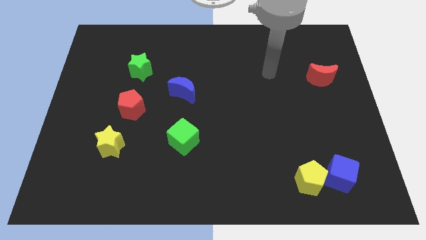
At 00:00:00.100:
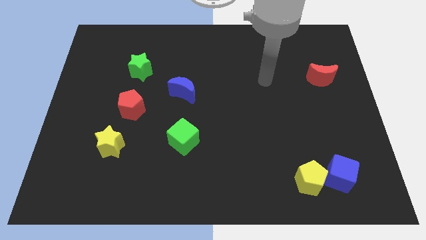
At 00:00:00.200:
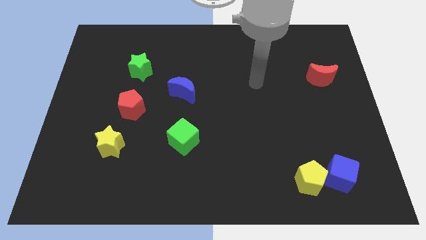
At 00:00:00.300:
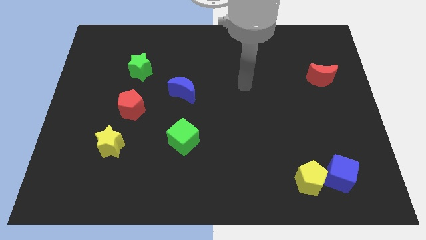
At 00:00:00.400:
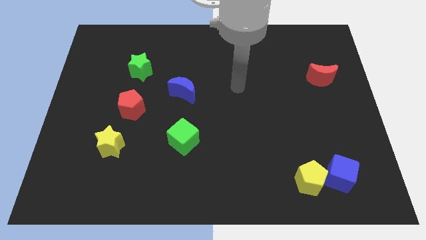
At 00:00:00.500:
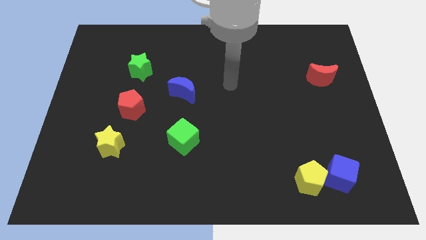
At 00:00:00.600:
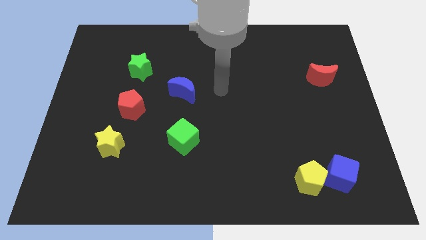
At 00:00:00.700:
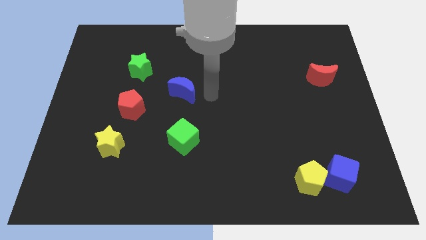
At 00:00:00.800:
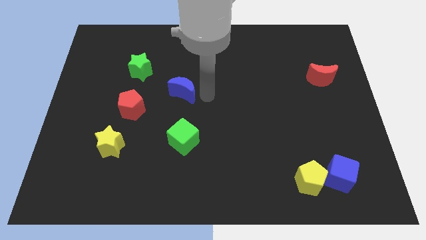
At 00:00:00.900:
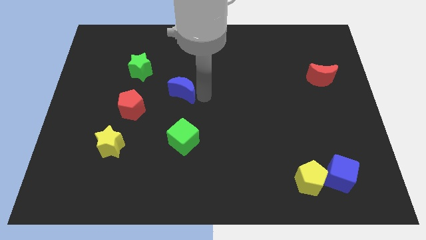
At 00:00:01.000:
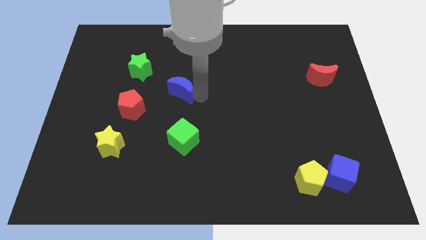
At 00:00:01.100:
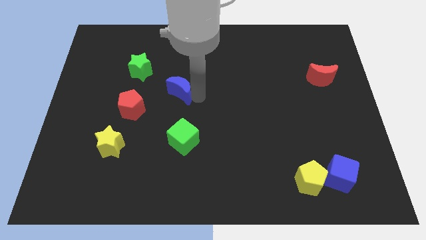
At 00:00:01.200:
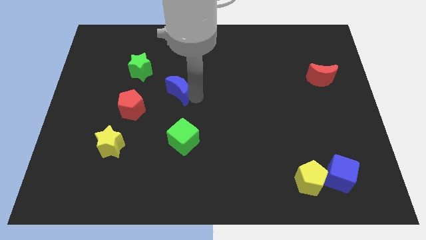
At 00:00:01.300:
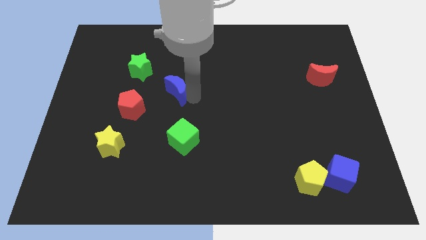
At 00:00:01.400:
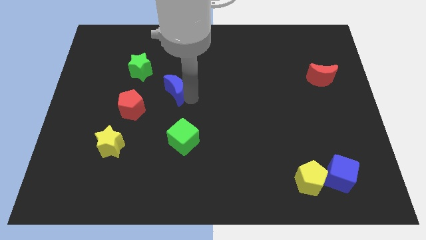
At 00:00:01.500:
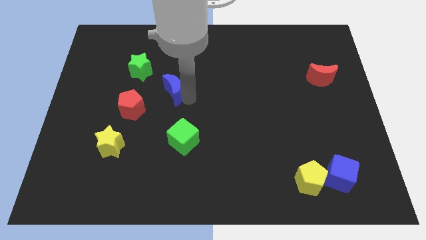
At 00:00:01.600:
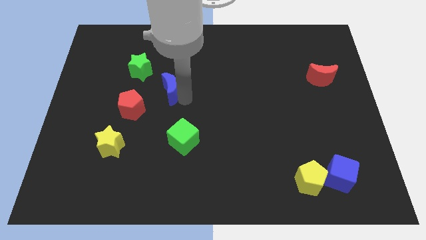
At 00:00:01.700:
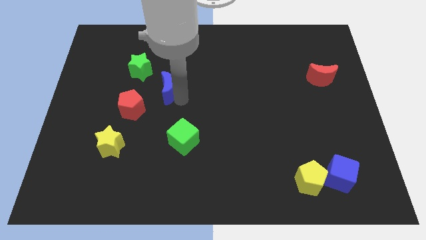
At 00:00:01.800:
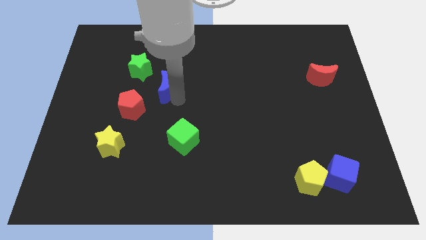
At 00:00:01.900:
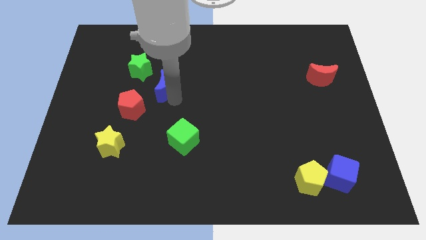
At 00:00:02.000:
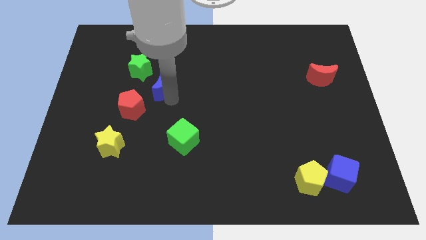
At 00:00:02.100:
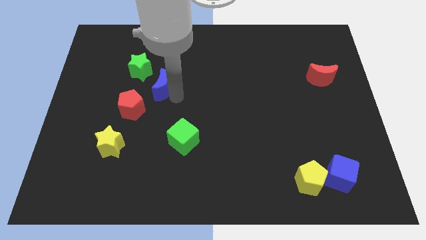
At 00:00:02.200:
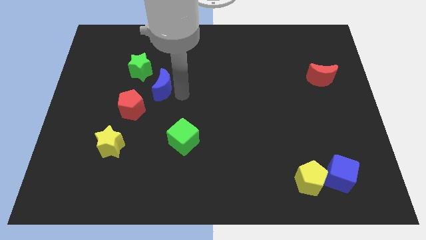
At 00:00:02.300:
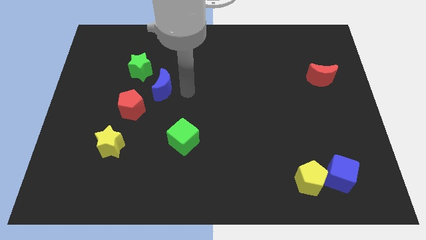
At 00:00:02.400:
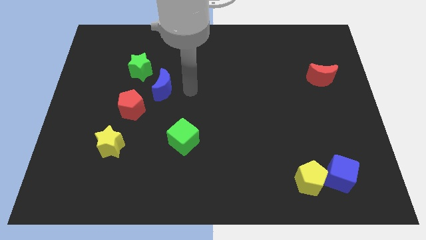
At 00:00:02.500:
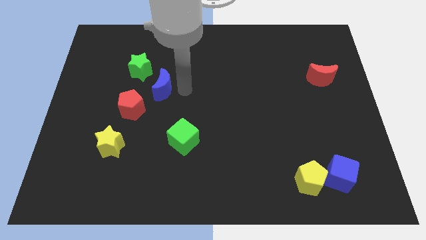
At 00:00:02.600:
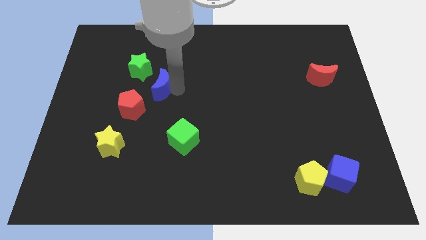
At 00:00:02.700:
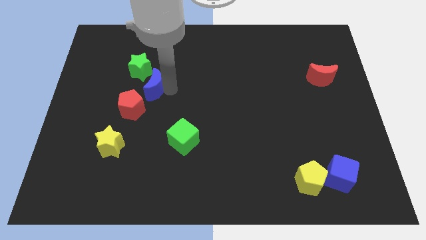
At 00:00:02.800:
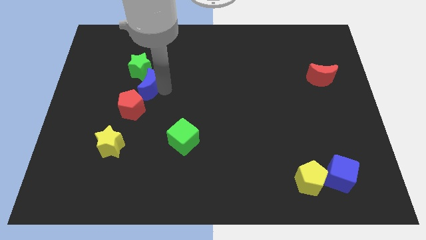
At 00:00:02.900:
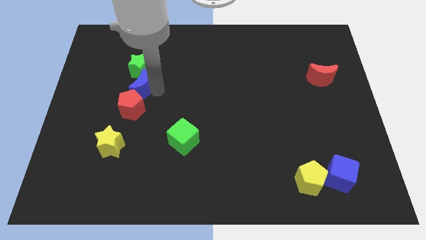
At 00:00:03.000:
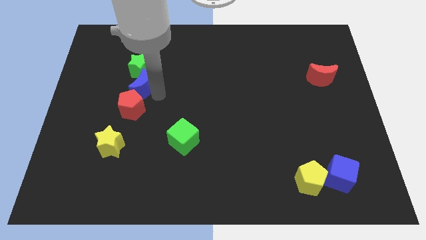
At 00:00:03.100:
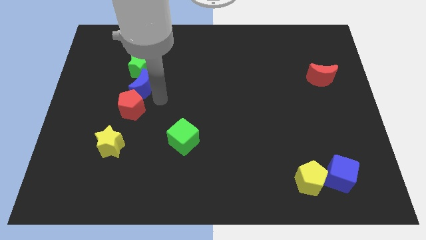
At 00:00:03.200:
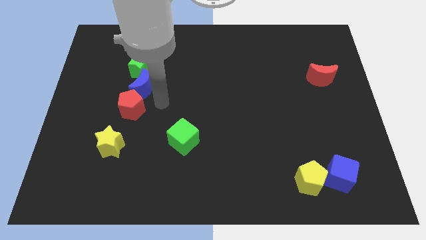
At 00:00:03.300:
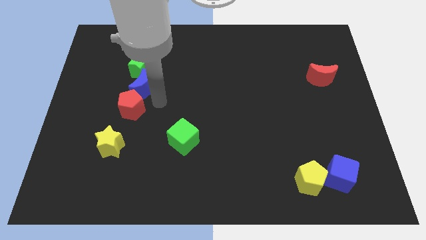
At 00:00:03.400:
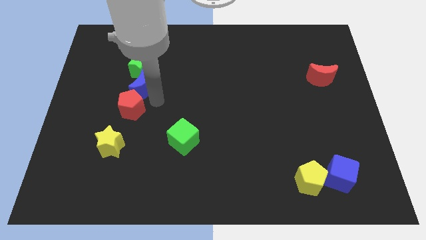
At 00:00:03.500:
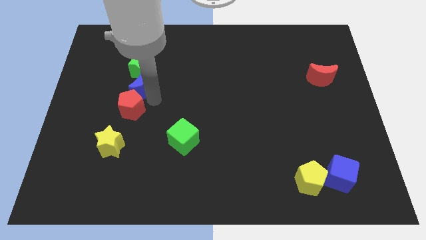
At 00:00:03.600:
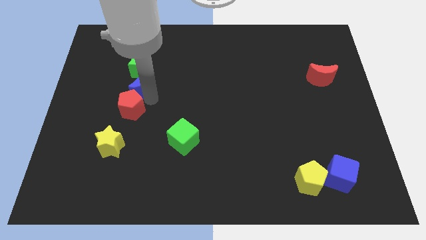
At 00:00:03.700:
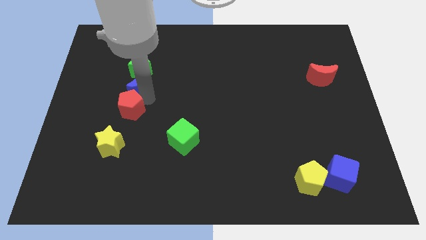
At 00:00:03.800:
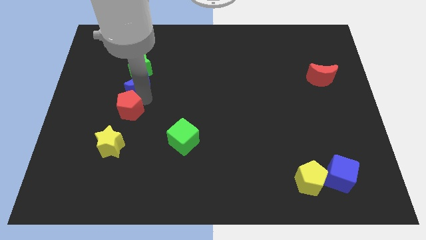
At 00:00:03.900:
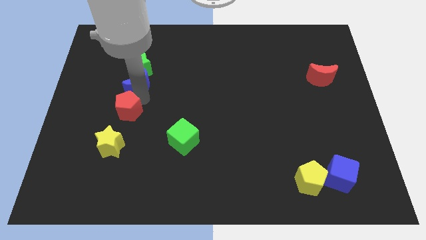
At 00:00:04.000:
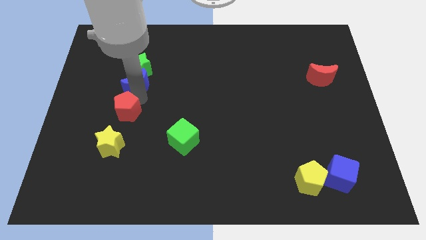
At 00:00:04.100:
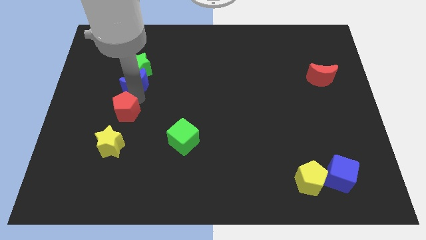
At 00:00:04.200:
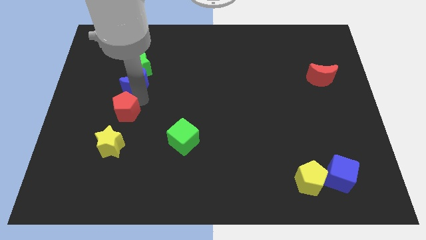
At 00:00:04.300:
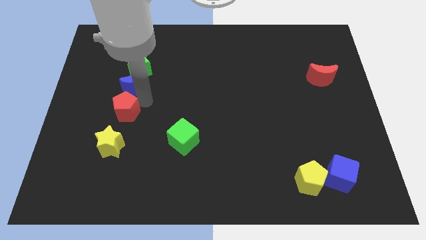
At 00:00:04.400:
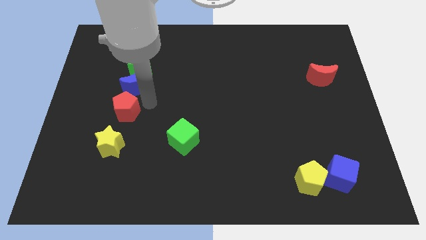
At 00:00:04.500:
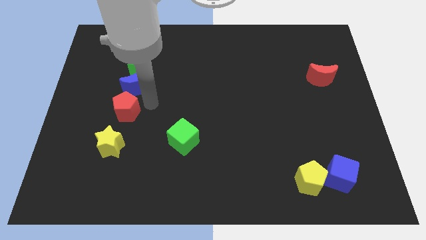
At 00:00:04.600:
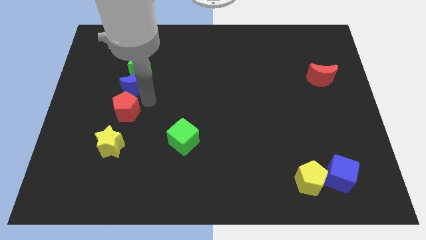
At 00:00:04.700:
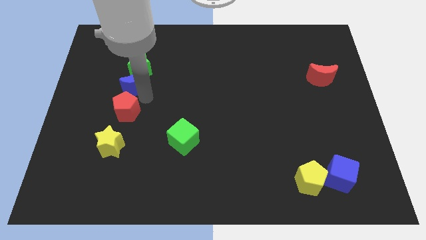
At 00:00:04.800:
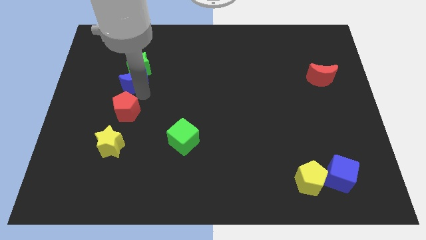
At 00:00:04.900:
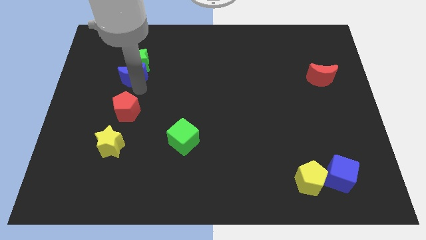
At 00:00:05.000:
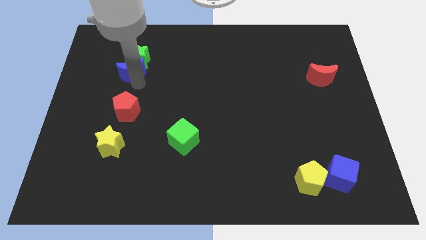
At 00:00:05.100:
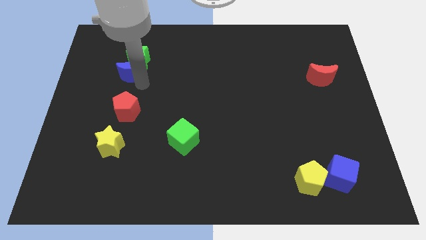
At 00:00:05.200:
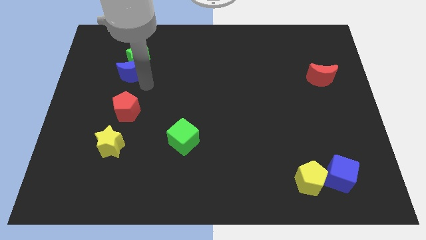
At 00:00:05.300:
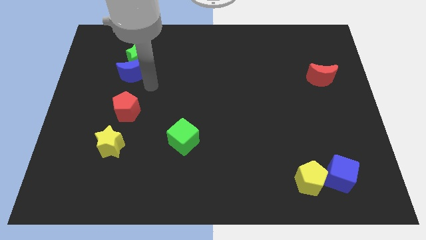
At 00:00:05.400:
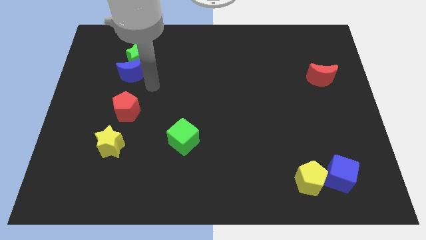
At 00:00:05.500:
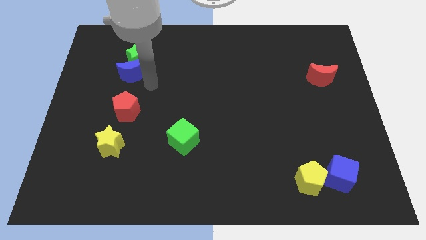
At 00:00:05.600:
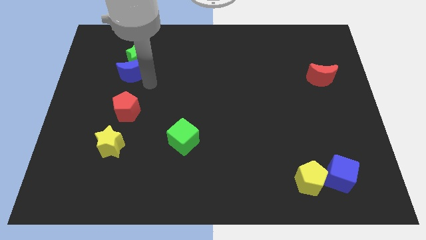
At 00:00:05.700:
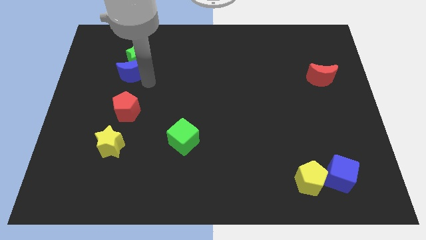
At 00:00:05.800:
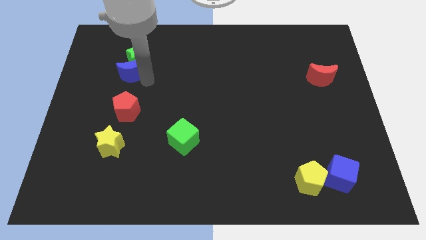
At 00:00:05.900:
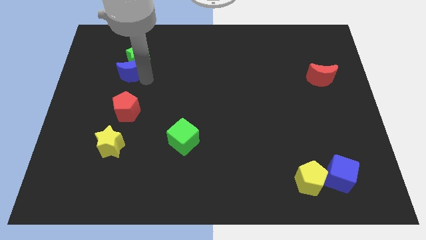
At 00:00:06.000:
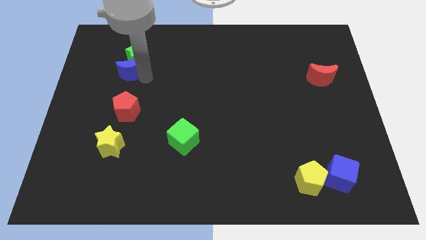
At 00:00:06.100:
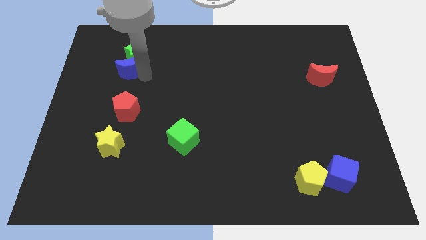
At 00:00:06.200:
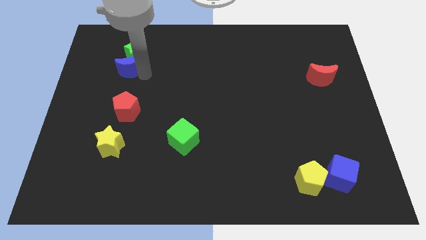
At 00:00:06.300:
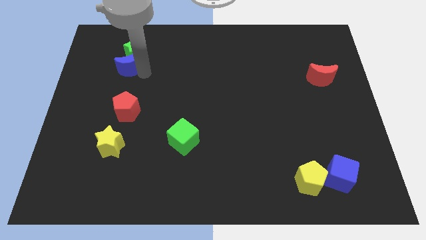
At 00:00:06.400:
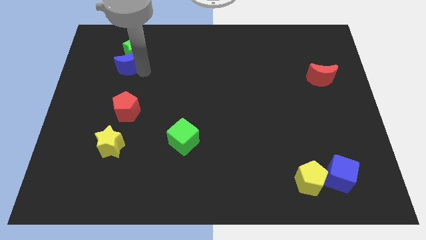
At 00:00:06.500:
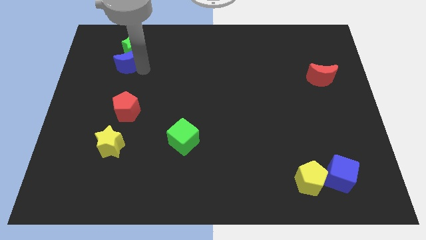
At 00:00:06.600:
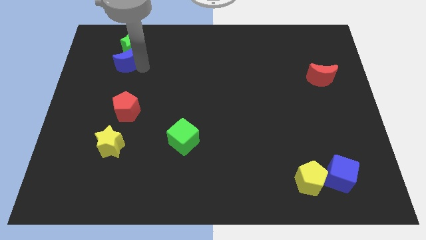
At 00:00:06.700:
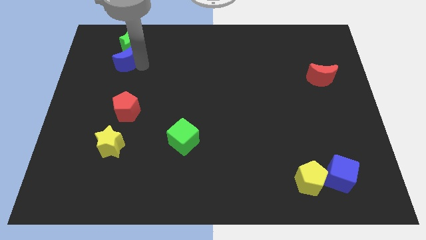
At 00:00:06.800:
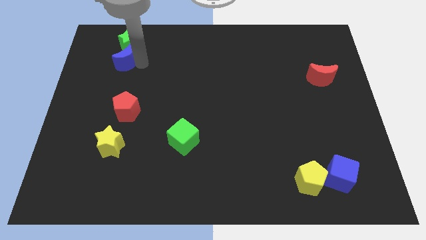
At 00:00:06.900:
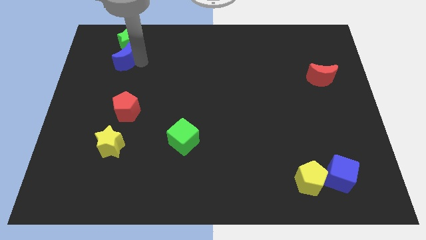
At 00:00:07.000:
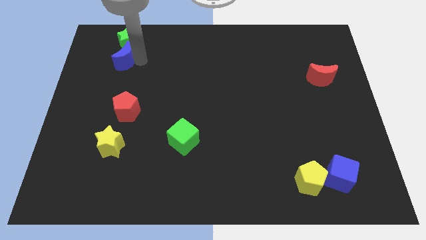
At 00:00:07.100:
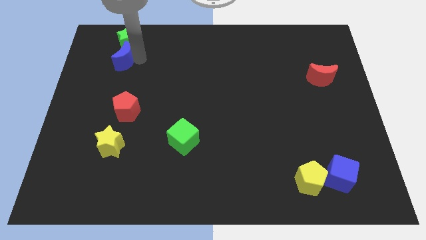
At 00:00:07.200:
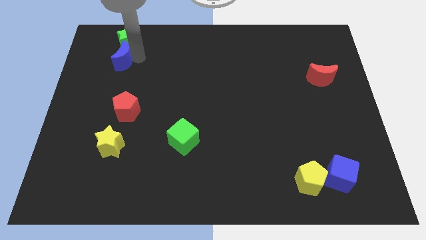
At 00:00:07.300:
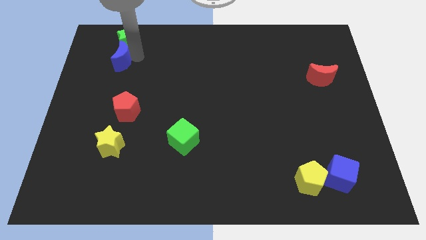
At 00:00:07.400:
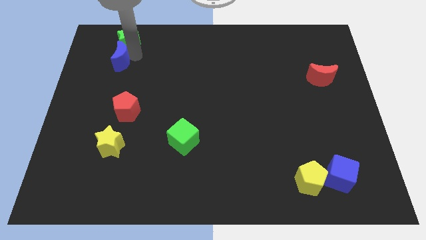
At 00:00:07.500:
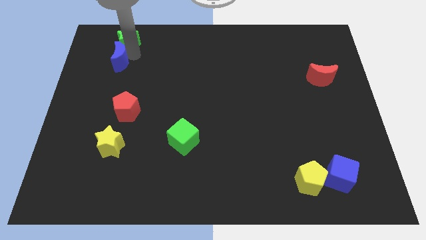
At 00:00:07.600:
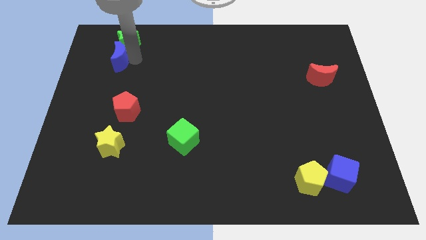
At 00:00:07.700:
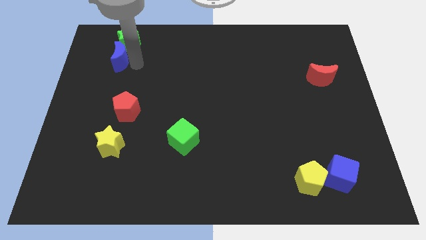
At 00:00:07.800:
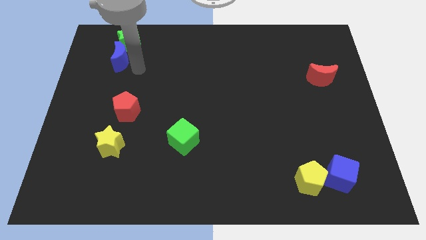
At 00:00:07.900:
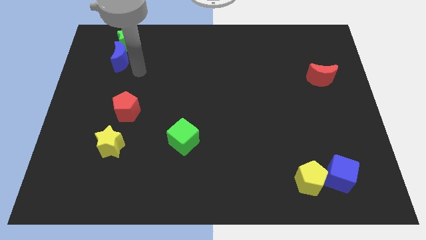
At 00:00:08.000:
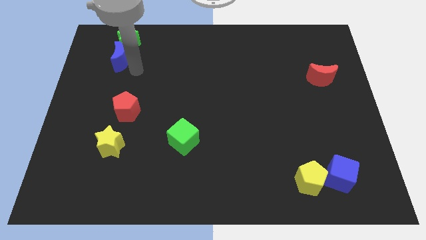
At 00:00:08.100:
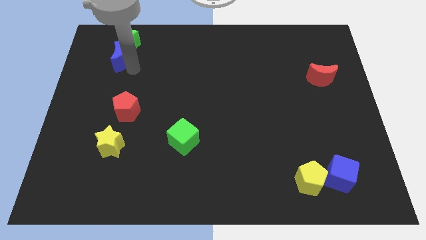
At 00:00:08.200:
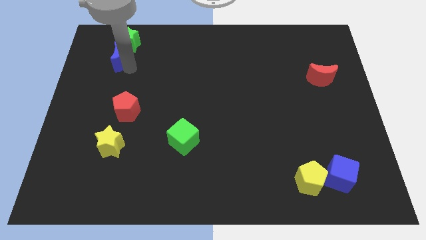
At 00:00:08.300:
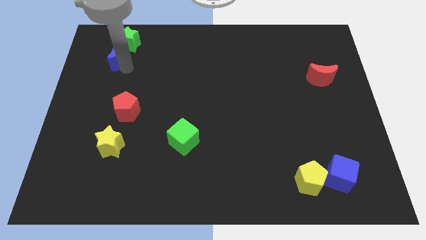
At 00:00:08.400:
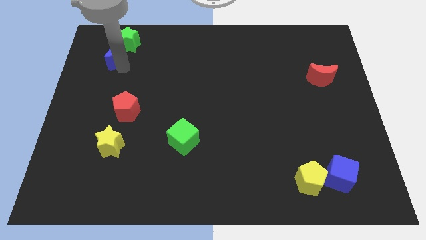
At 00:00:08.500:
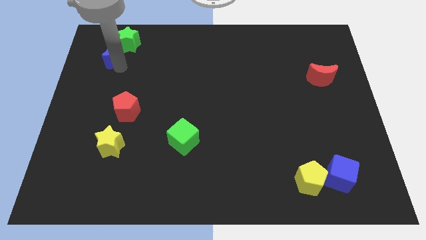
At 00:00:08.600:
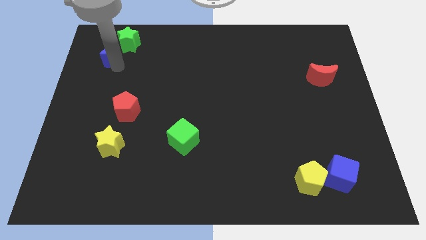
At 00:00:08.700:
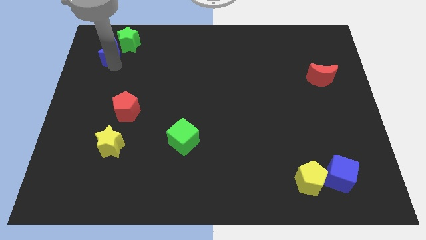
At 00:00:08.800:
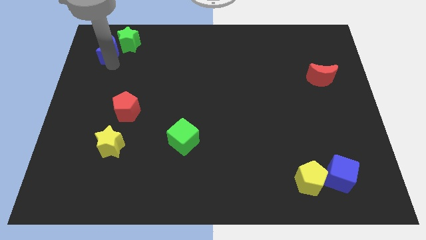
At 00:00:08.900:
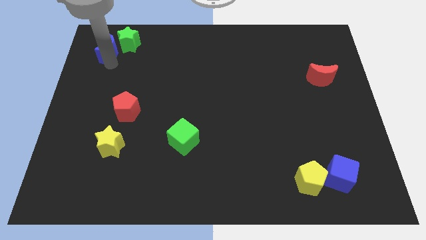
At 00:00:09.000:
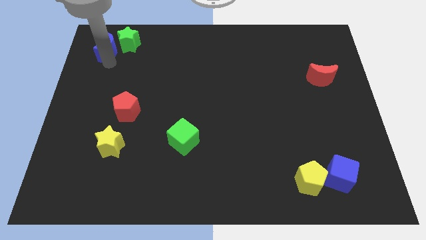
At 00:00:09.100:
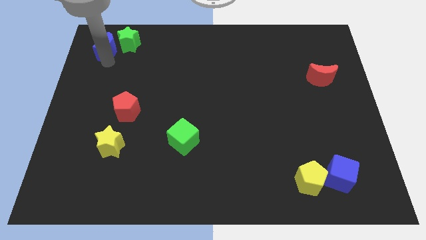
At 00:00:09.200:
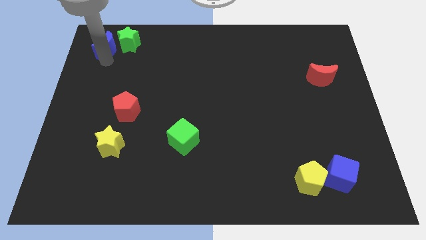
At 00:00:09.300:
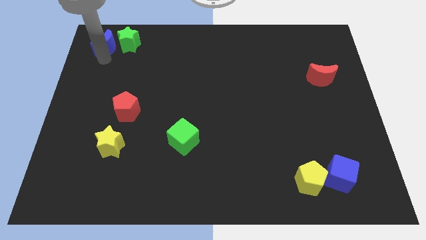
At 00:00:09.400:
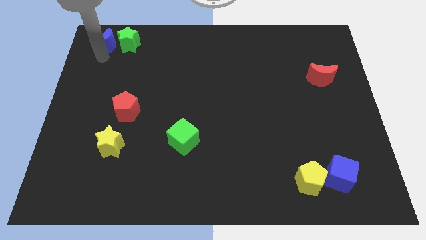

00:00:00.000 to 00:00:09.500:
slide the blue moon to the upper left corner
